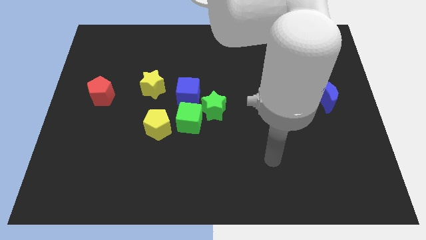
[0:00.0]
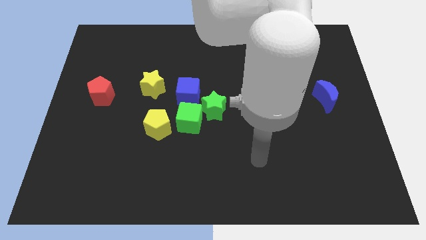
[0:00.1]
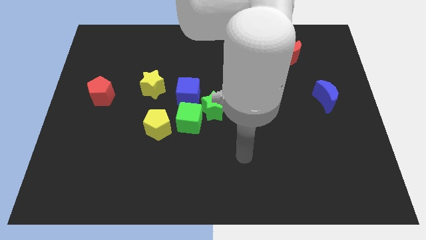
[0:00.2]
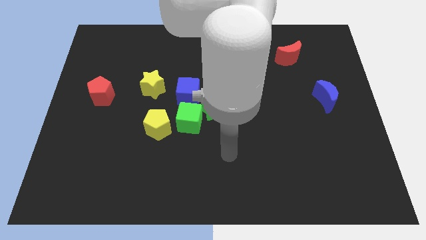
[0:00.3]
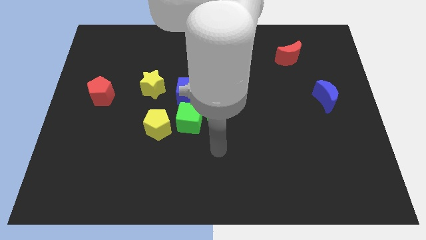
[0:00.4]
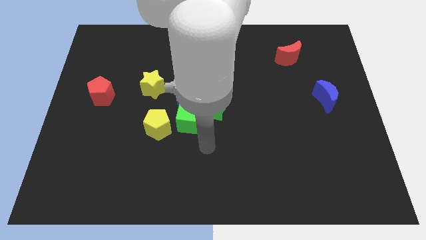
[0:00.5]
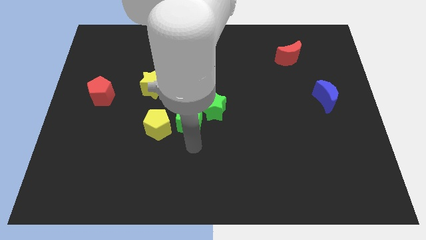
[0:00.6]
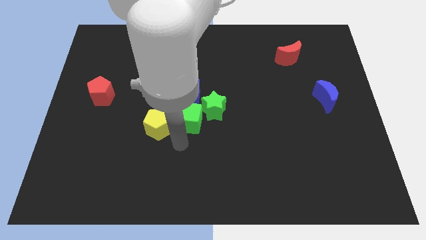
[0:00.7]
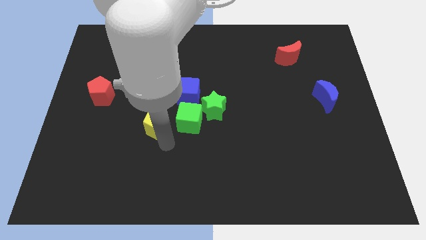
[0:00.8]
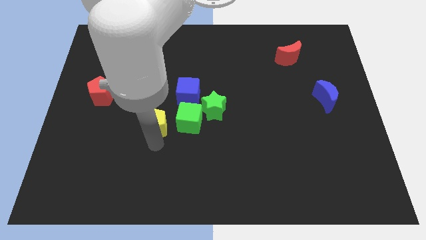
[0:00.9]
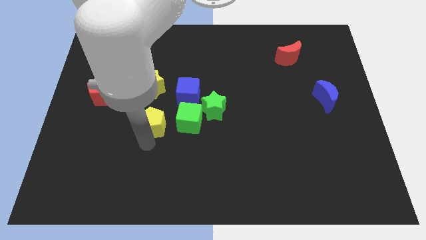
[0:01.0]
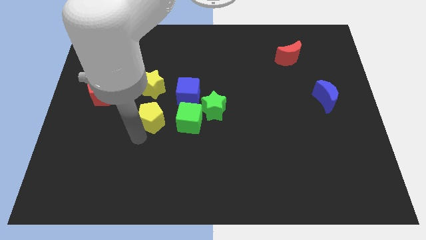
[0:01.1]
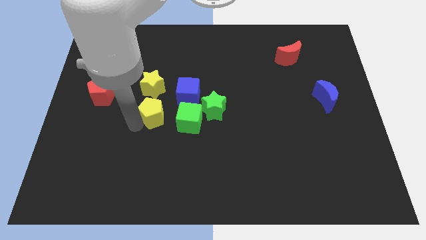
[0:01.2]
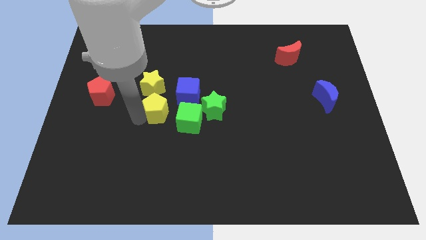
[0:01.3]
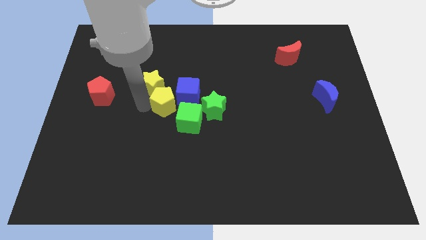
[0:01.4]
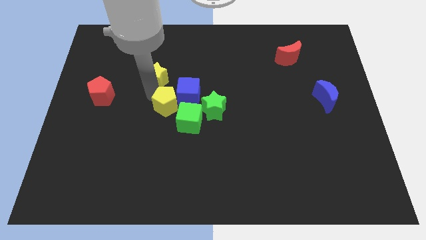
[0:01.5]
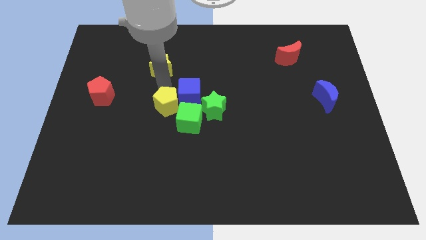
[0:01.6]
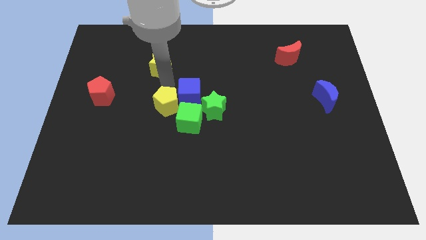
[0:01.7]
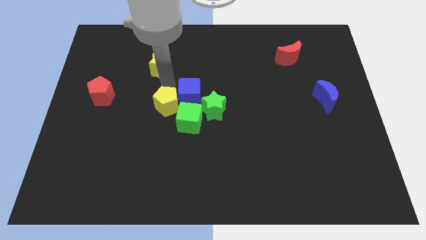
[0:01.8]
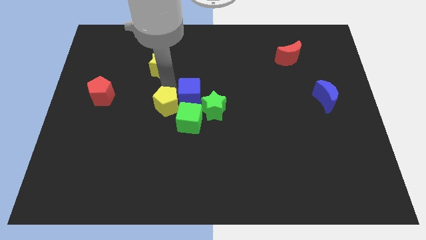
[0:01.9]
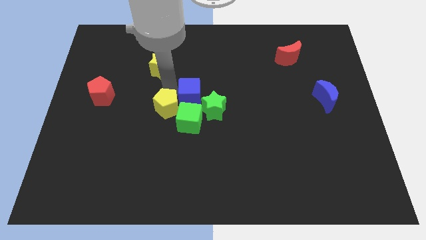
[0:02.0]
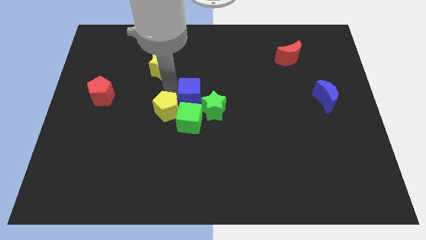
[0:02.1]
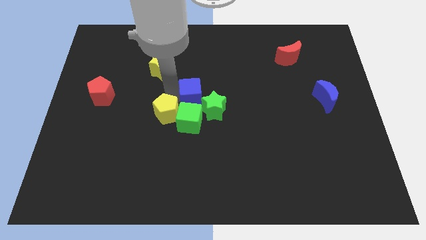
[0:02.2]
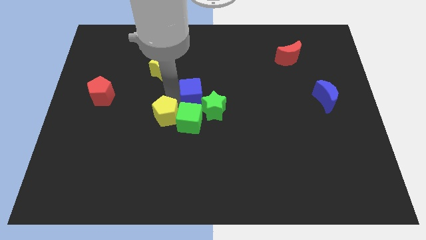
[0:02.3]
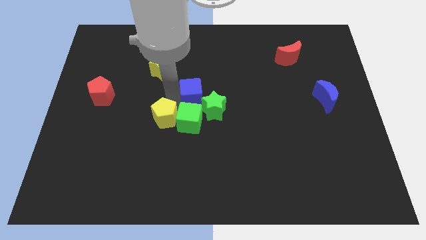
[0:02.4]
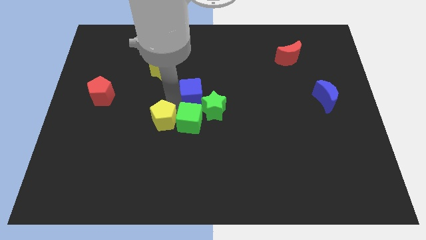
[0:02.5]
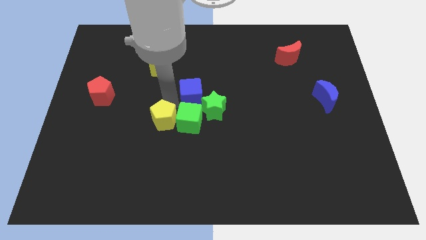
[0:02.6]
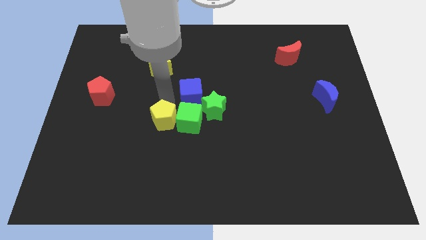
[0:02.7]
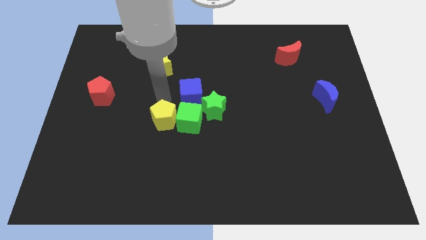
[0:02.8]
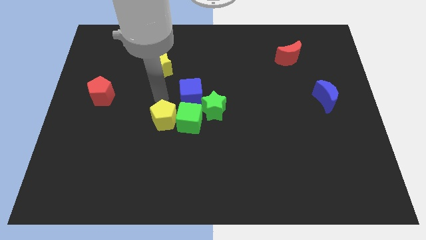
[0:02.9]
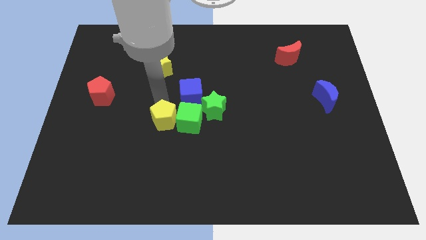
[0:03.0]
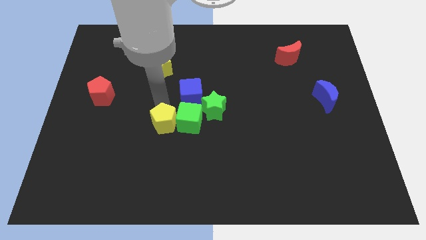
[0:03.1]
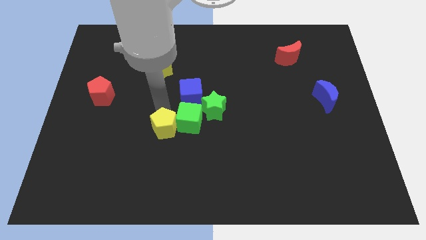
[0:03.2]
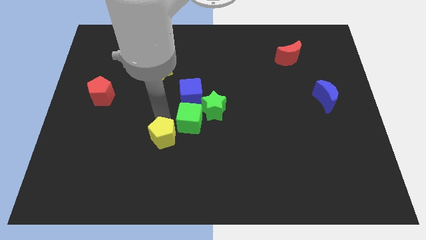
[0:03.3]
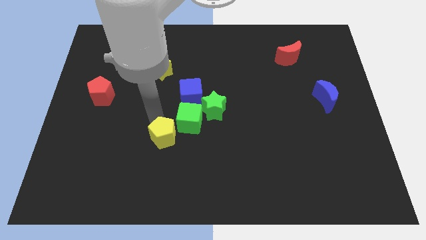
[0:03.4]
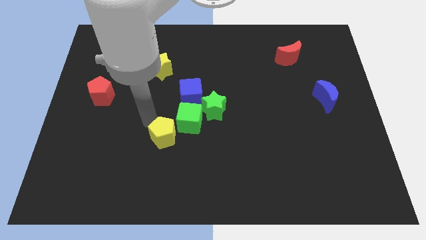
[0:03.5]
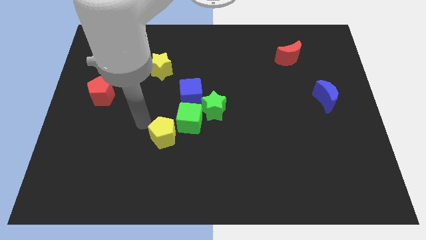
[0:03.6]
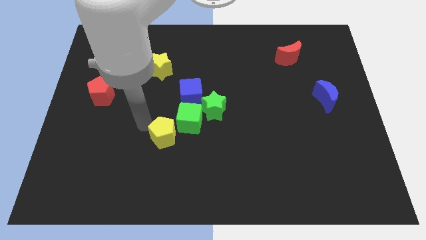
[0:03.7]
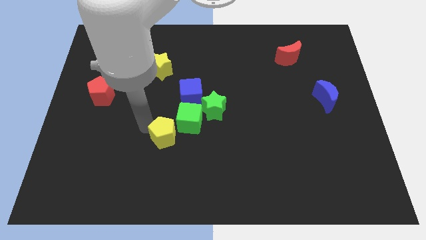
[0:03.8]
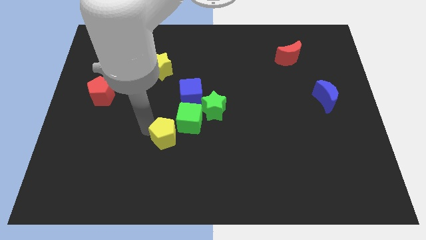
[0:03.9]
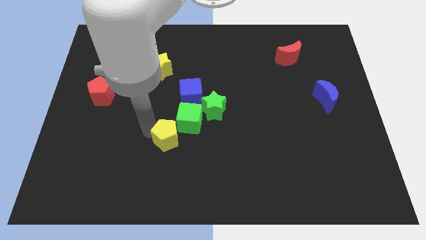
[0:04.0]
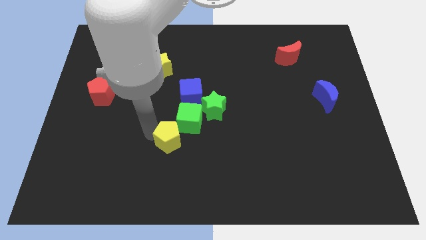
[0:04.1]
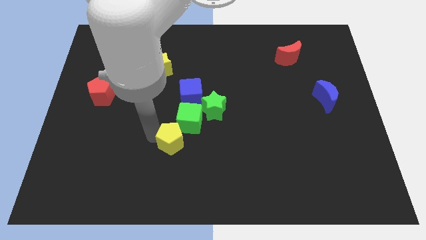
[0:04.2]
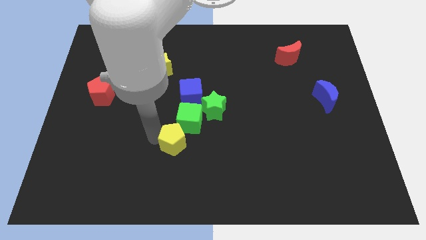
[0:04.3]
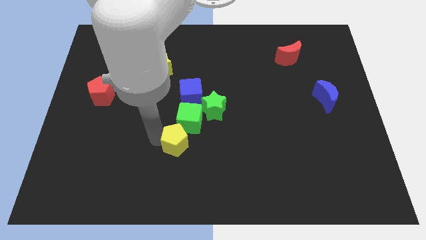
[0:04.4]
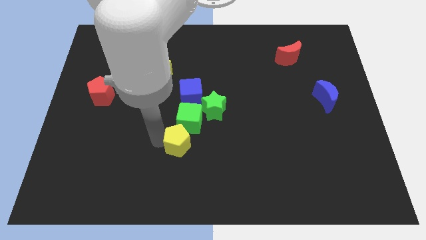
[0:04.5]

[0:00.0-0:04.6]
move the yellow pentagon downwards and to the right a little

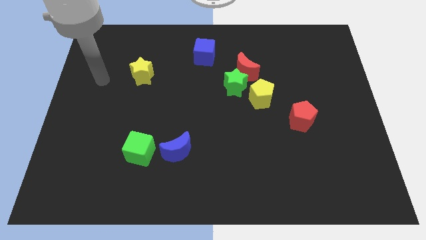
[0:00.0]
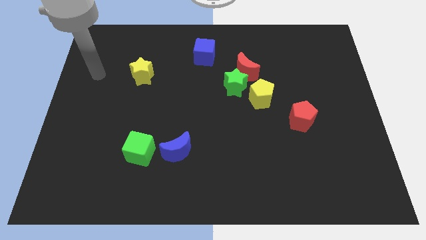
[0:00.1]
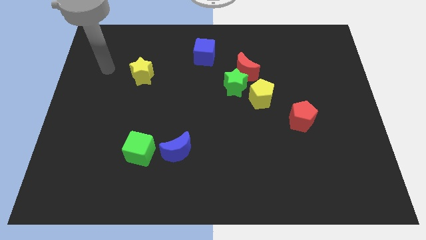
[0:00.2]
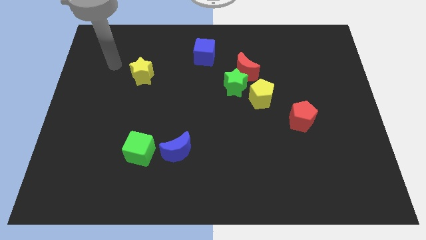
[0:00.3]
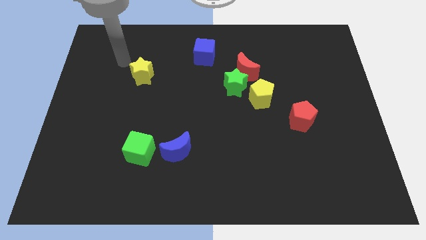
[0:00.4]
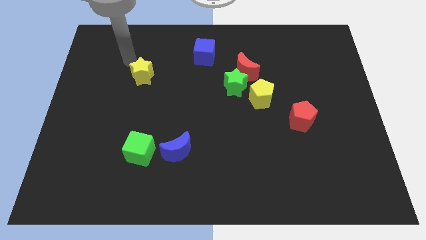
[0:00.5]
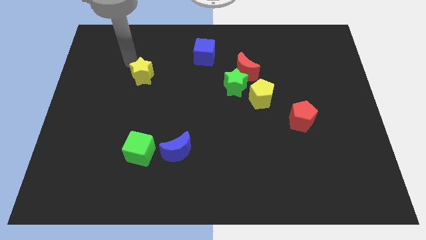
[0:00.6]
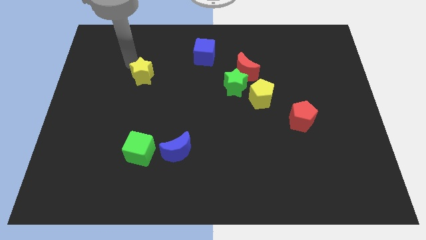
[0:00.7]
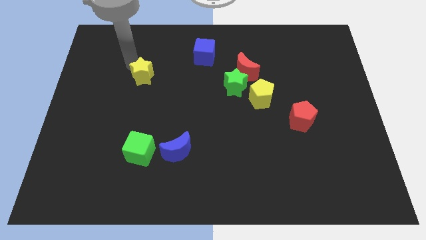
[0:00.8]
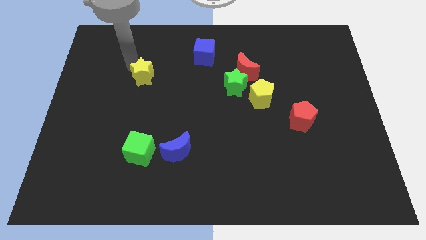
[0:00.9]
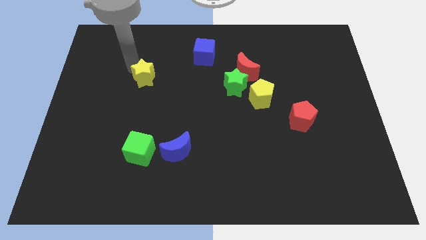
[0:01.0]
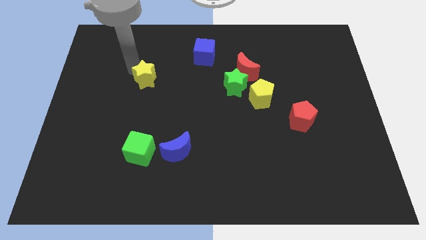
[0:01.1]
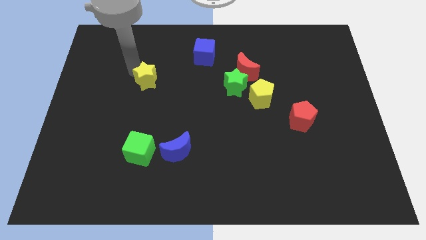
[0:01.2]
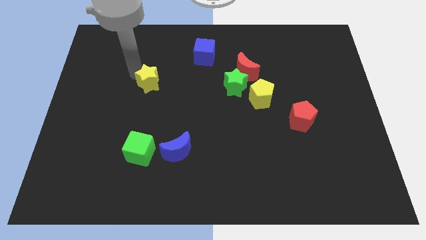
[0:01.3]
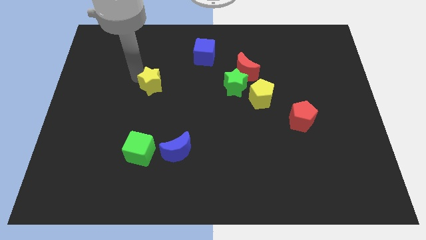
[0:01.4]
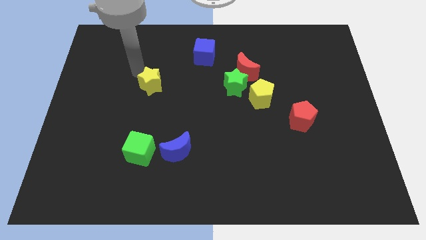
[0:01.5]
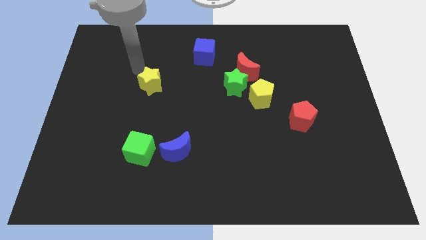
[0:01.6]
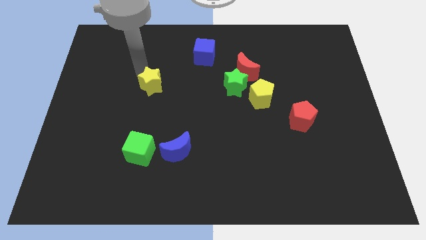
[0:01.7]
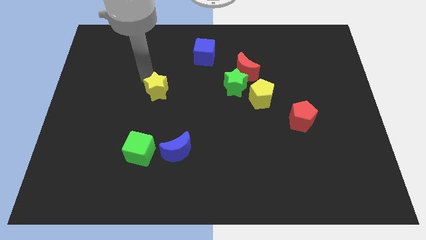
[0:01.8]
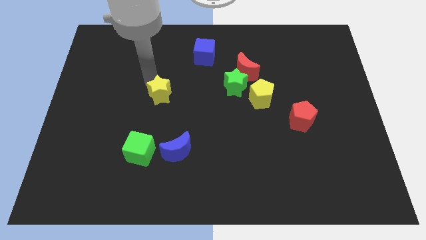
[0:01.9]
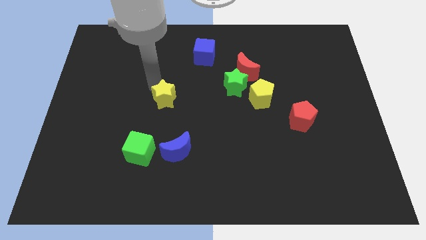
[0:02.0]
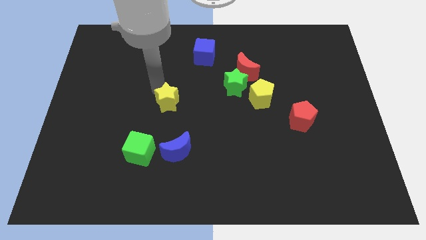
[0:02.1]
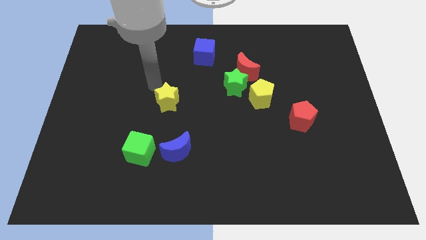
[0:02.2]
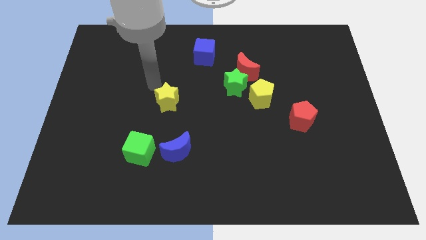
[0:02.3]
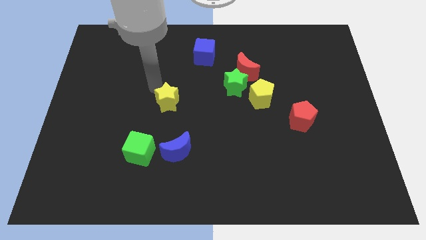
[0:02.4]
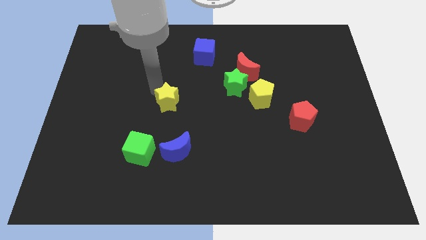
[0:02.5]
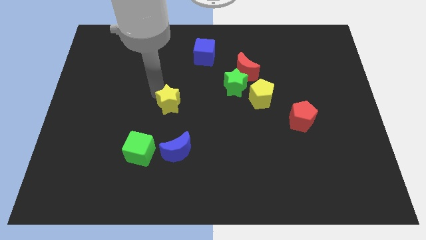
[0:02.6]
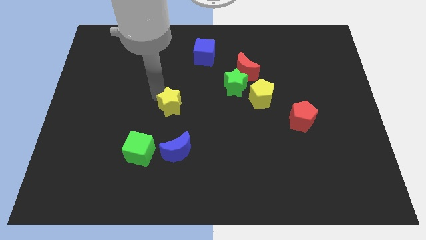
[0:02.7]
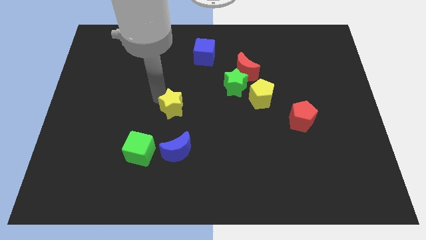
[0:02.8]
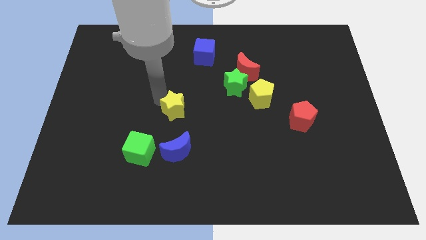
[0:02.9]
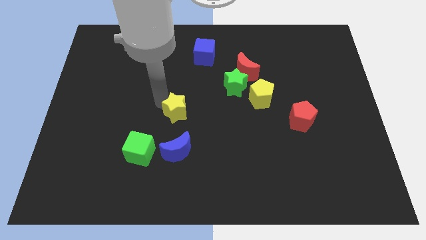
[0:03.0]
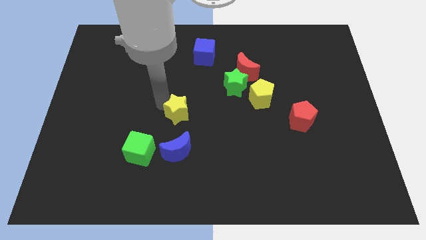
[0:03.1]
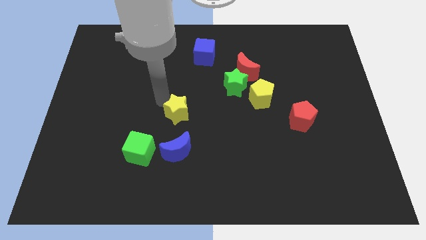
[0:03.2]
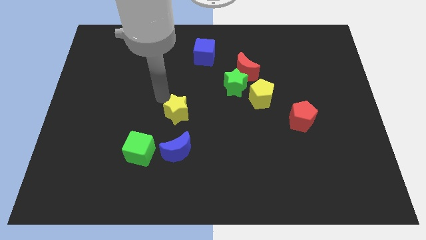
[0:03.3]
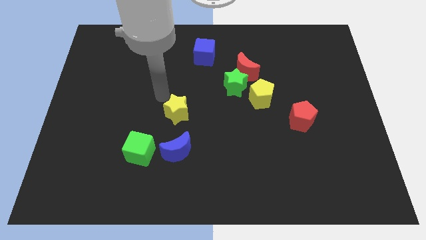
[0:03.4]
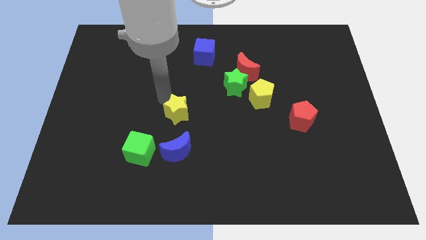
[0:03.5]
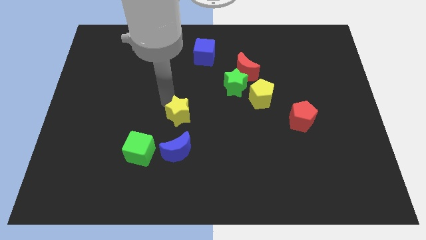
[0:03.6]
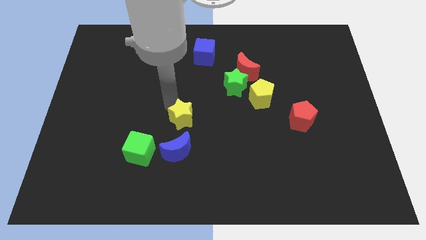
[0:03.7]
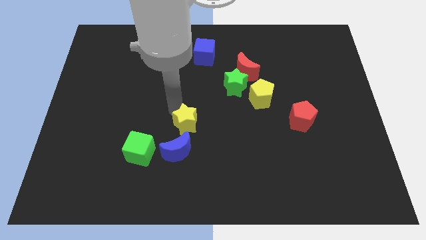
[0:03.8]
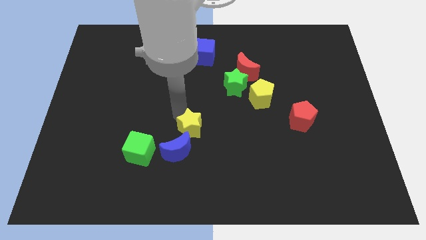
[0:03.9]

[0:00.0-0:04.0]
move the yellow star diagonally down and to the right
